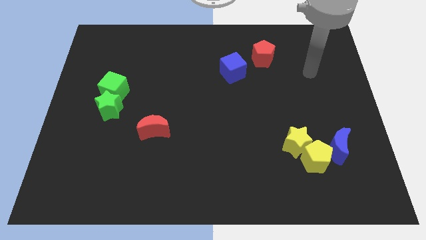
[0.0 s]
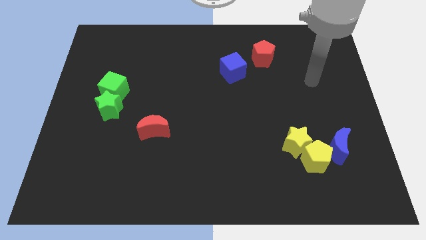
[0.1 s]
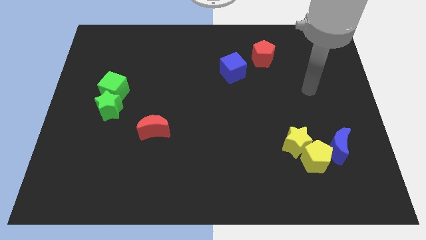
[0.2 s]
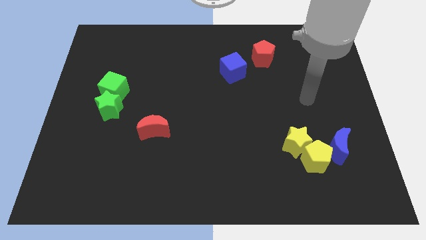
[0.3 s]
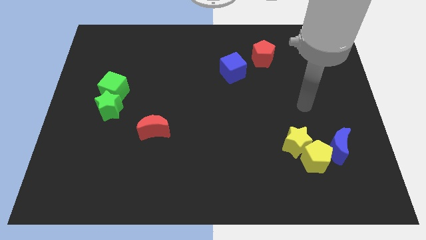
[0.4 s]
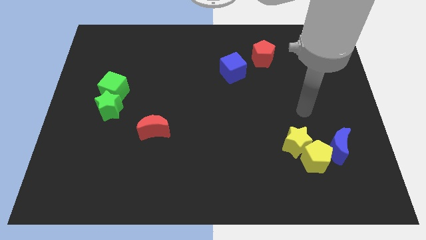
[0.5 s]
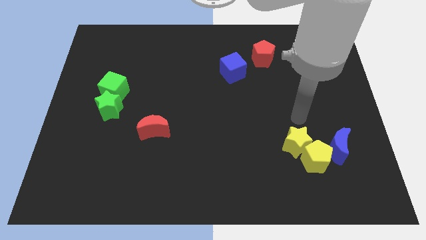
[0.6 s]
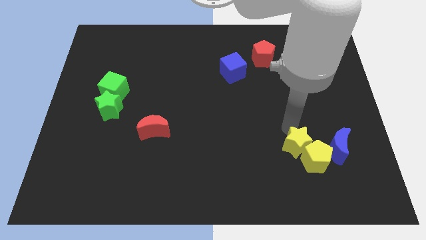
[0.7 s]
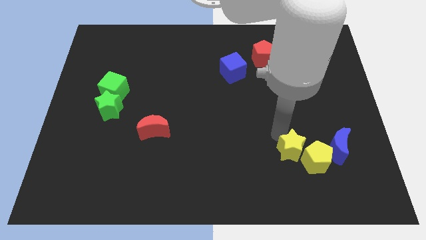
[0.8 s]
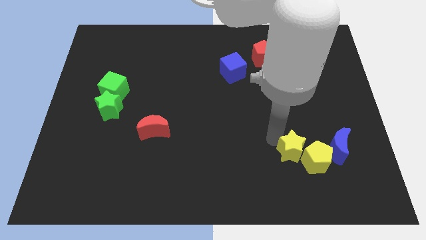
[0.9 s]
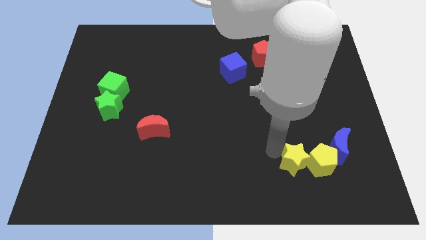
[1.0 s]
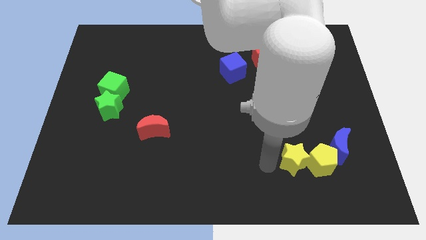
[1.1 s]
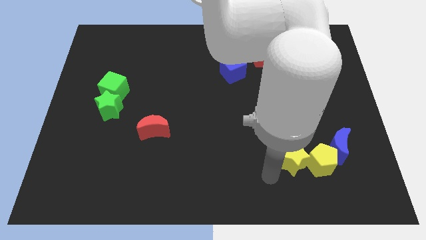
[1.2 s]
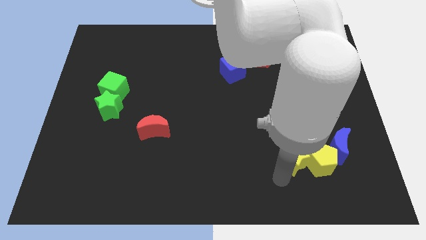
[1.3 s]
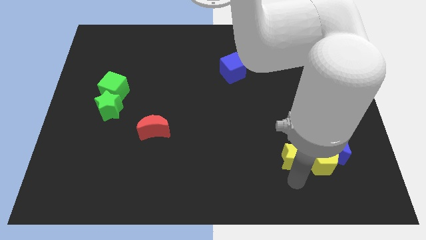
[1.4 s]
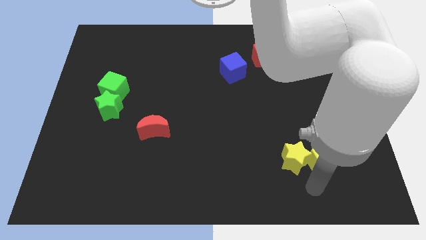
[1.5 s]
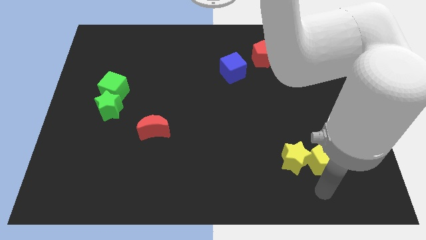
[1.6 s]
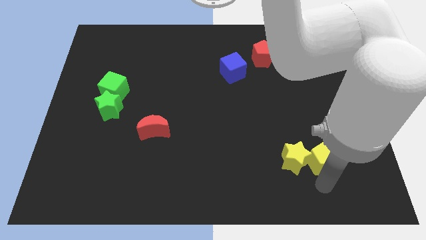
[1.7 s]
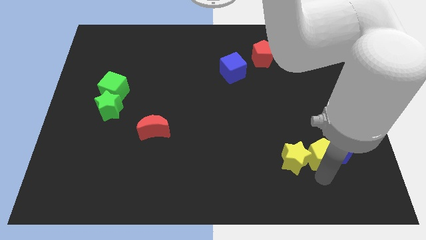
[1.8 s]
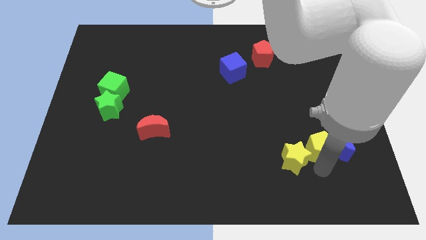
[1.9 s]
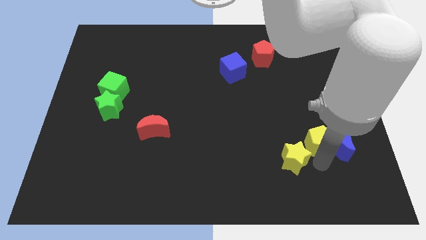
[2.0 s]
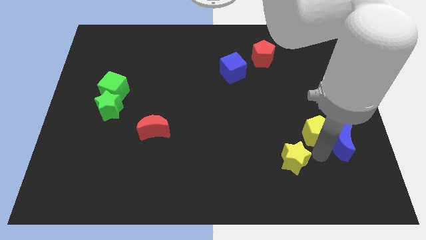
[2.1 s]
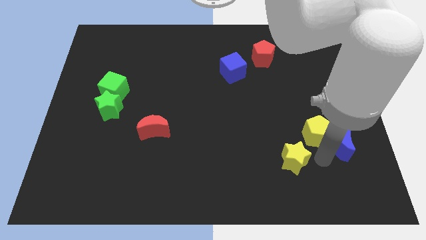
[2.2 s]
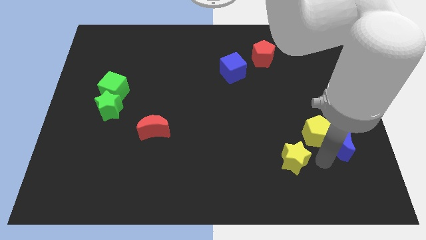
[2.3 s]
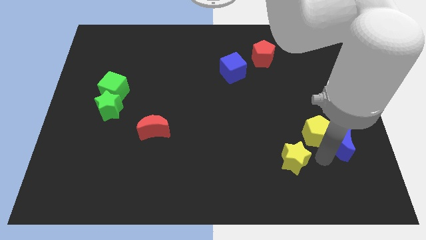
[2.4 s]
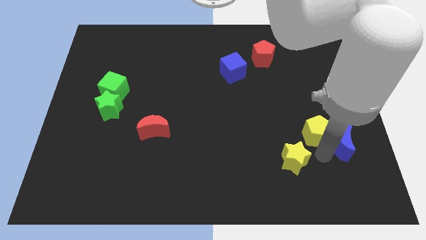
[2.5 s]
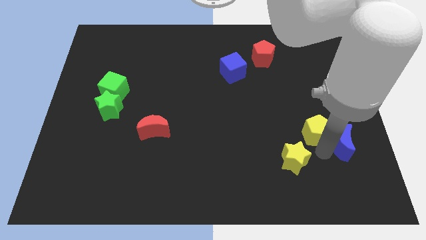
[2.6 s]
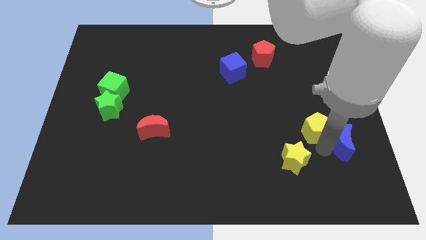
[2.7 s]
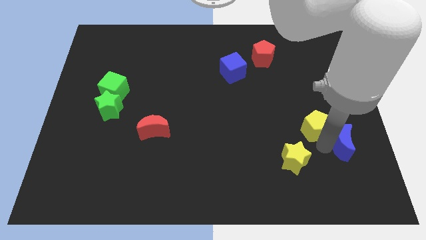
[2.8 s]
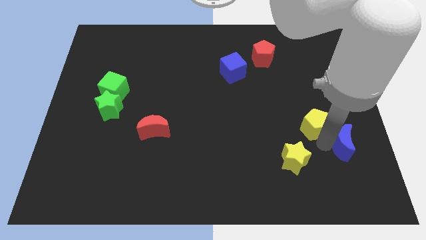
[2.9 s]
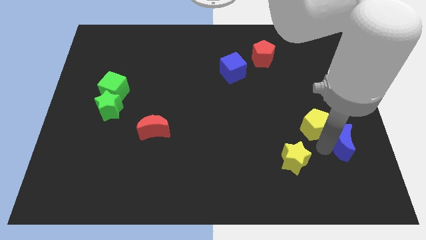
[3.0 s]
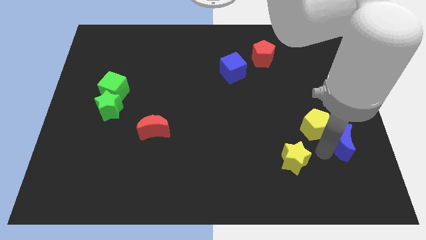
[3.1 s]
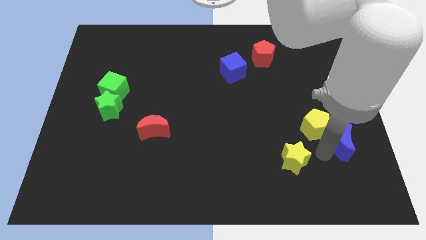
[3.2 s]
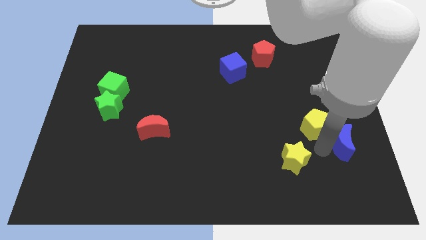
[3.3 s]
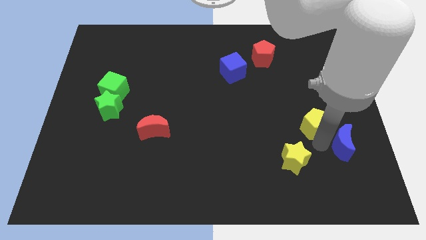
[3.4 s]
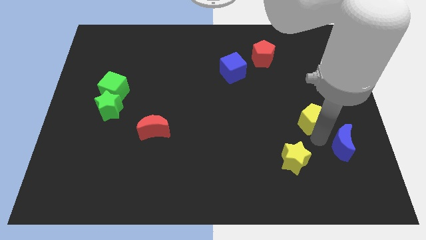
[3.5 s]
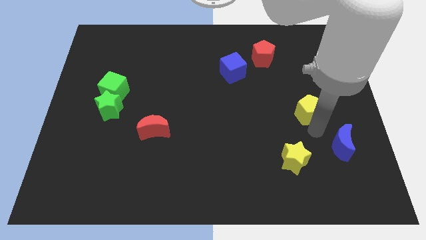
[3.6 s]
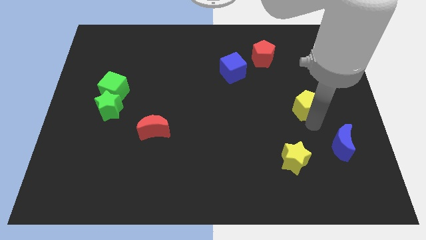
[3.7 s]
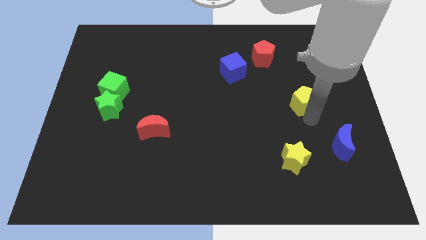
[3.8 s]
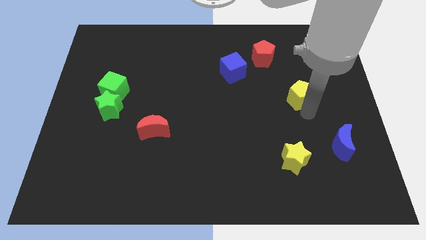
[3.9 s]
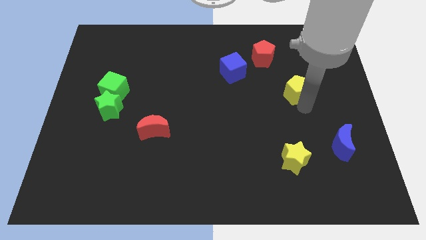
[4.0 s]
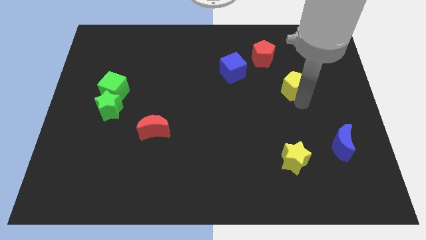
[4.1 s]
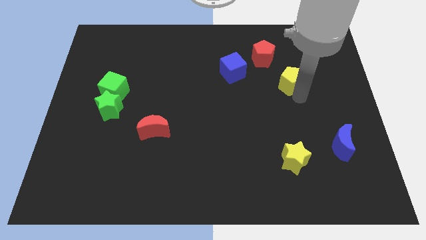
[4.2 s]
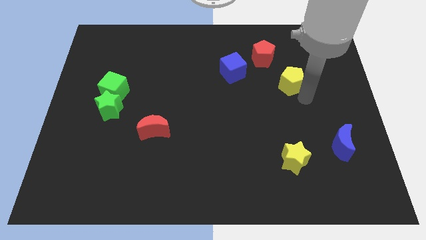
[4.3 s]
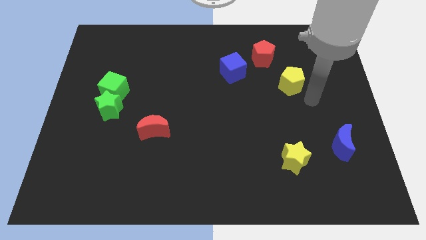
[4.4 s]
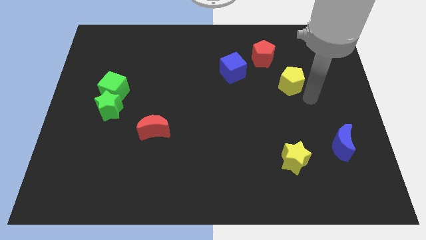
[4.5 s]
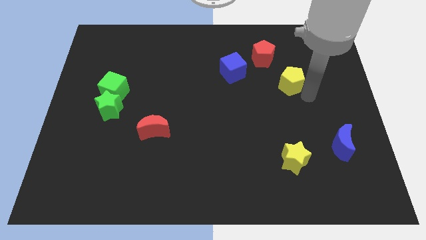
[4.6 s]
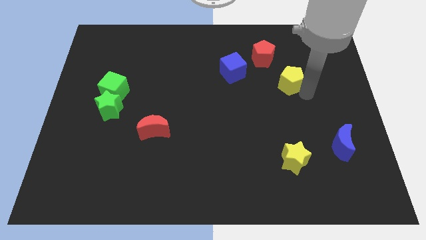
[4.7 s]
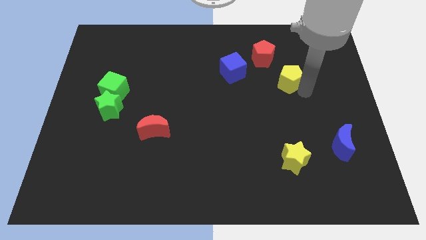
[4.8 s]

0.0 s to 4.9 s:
put the yellow pentagon right of the blue cube

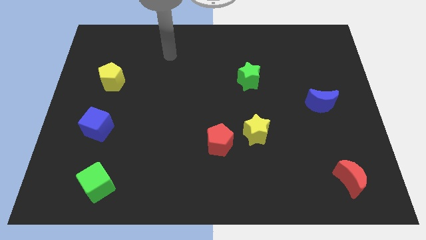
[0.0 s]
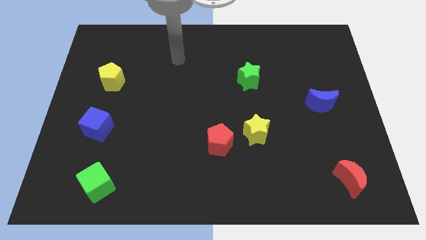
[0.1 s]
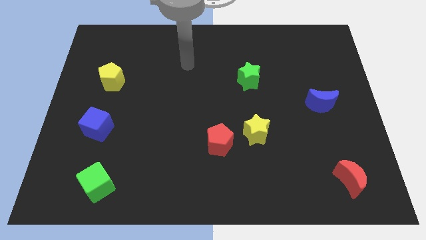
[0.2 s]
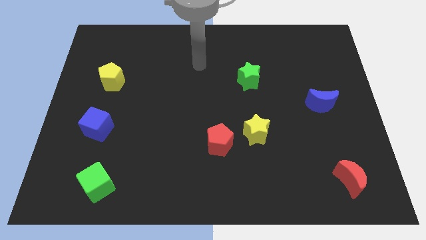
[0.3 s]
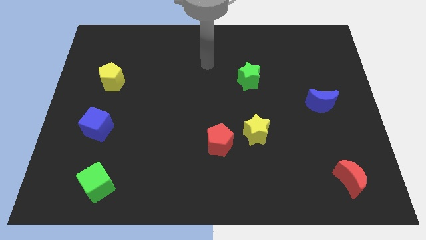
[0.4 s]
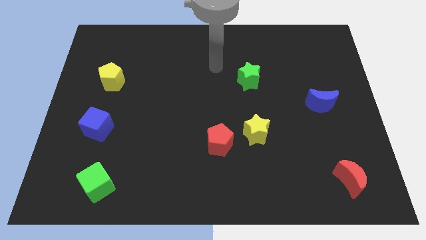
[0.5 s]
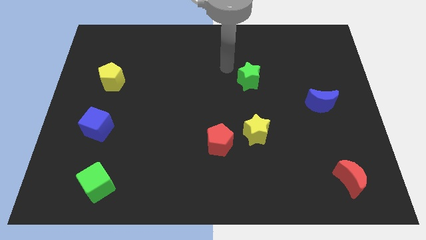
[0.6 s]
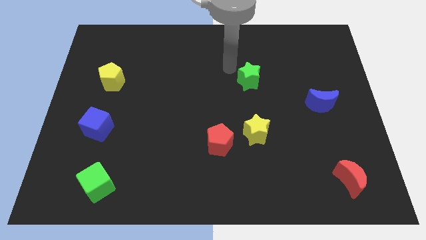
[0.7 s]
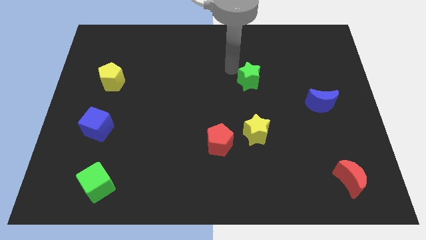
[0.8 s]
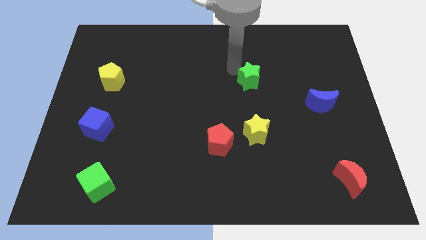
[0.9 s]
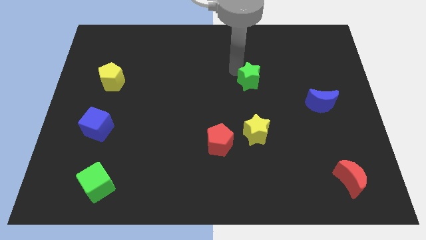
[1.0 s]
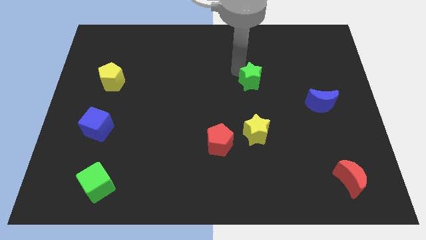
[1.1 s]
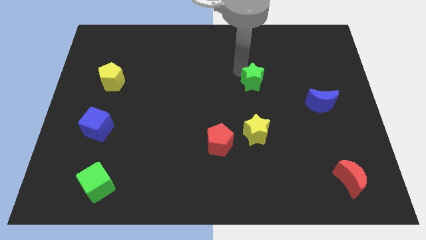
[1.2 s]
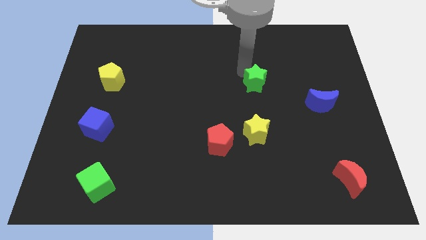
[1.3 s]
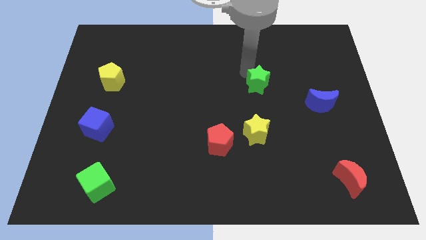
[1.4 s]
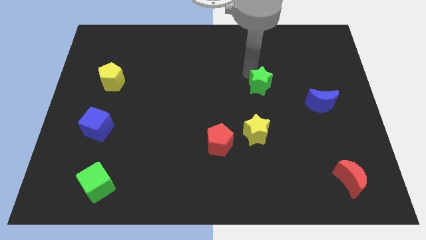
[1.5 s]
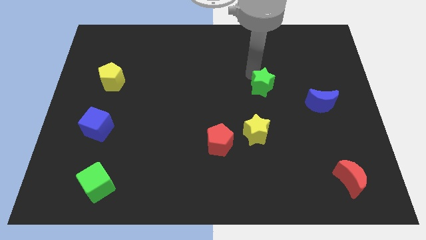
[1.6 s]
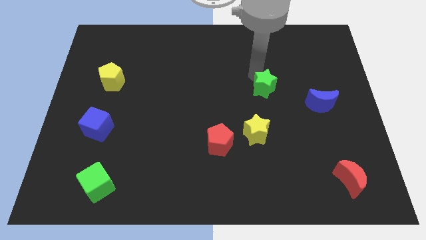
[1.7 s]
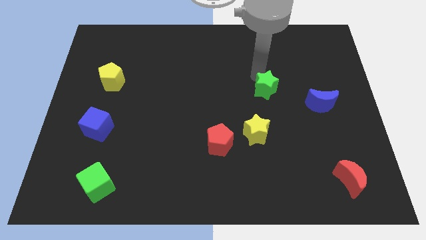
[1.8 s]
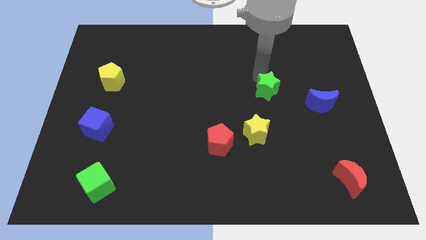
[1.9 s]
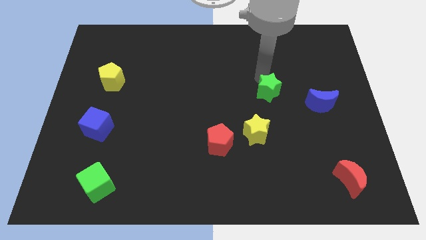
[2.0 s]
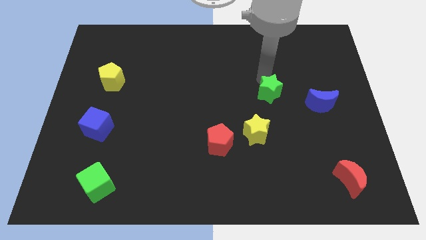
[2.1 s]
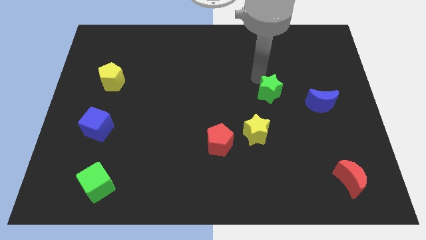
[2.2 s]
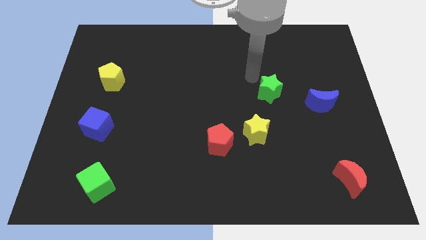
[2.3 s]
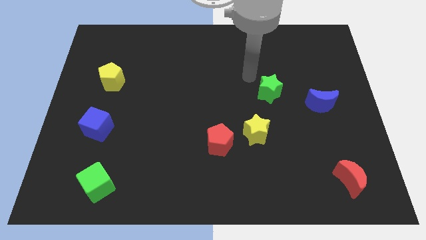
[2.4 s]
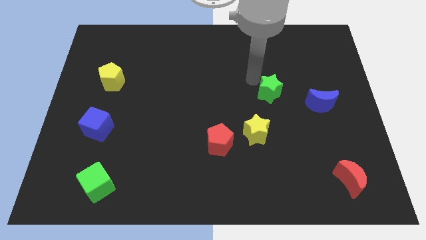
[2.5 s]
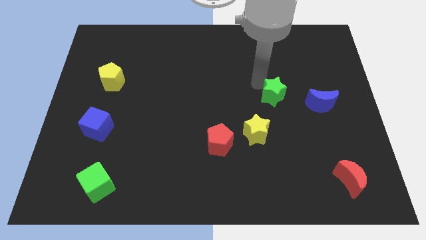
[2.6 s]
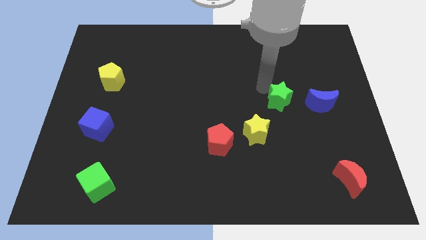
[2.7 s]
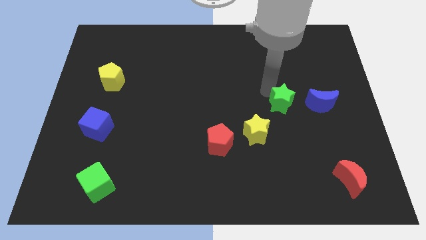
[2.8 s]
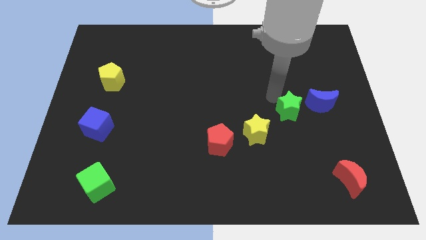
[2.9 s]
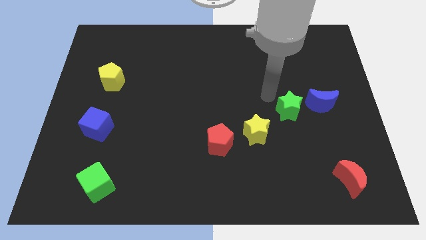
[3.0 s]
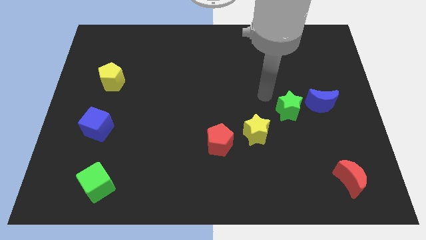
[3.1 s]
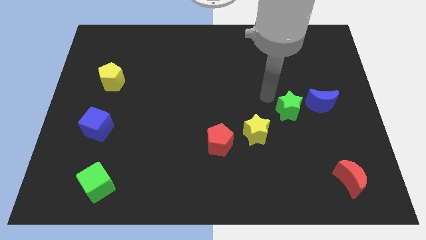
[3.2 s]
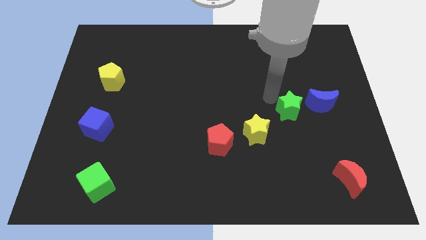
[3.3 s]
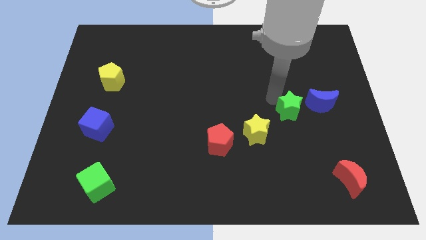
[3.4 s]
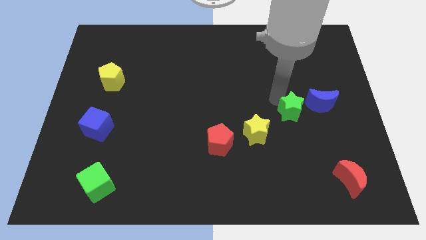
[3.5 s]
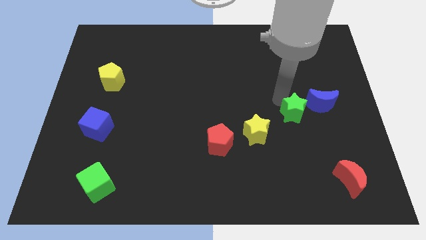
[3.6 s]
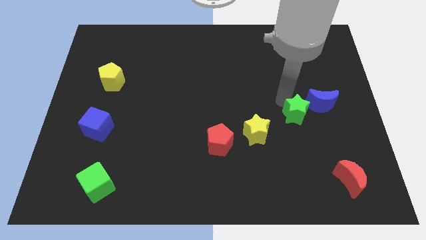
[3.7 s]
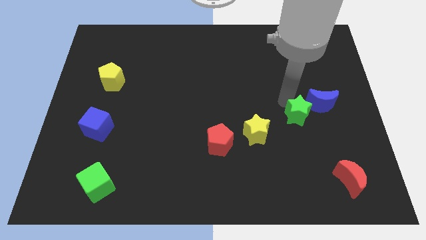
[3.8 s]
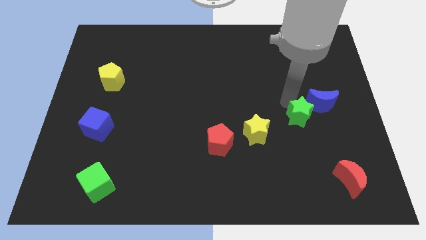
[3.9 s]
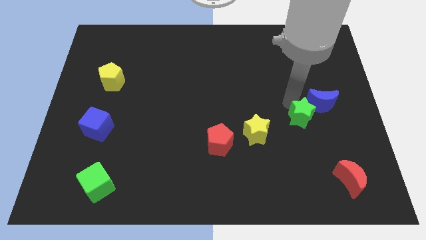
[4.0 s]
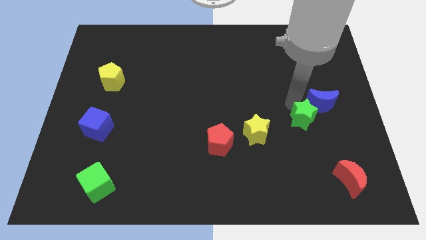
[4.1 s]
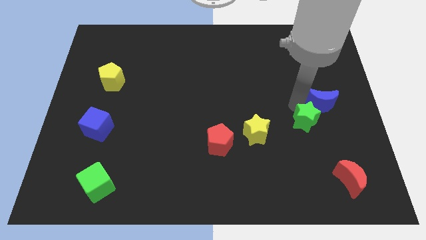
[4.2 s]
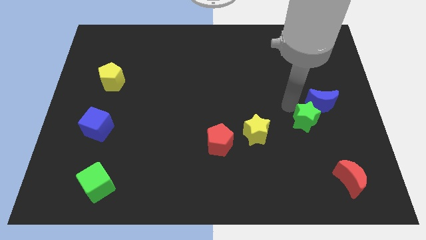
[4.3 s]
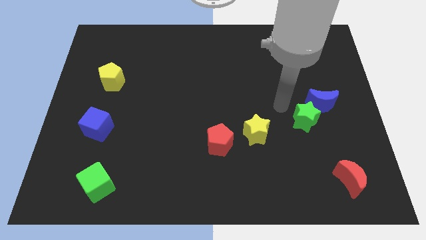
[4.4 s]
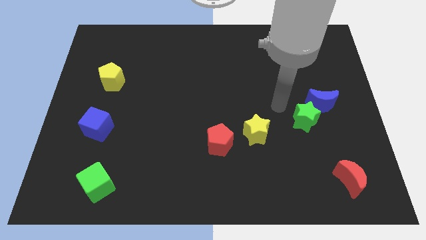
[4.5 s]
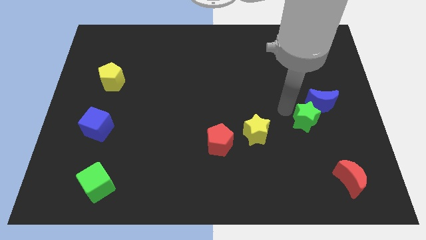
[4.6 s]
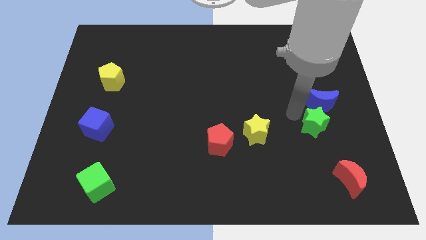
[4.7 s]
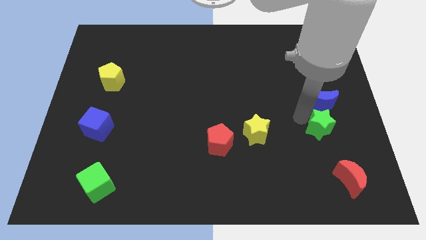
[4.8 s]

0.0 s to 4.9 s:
move the green star above the red moon
